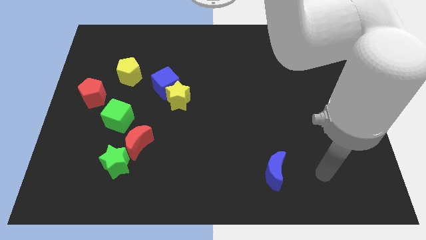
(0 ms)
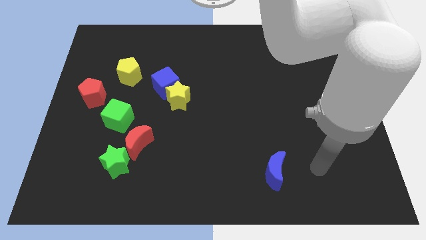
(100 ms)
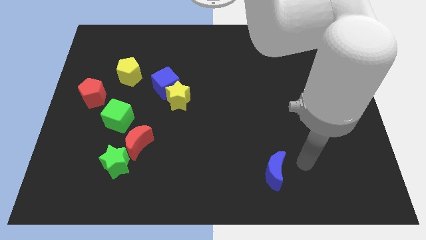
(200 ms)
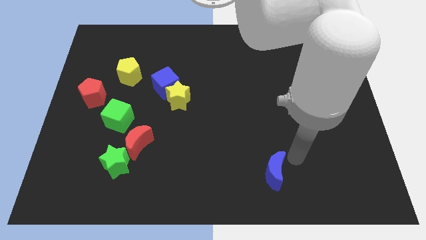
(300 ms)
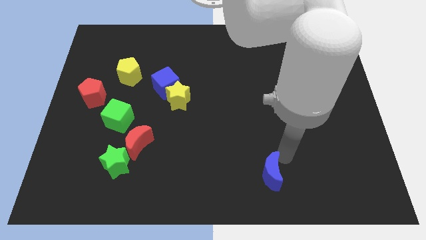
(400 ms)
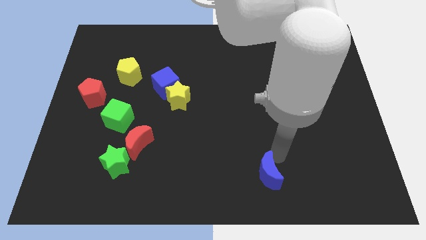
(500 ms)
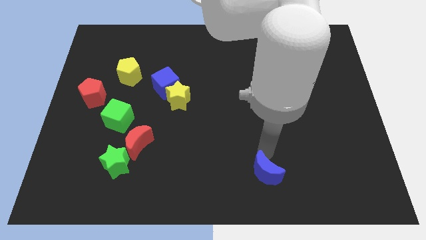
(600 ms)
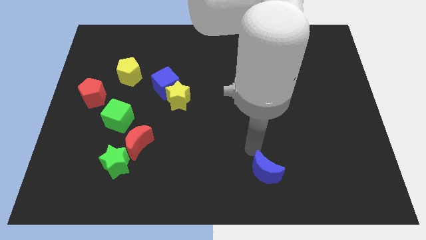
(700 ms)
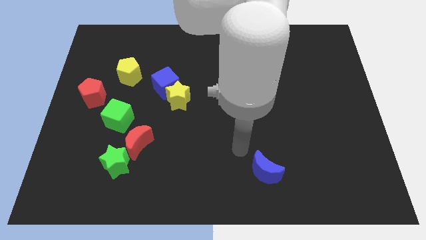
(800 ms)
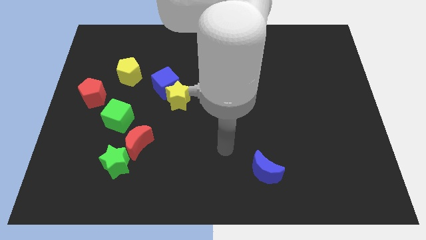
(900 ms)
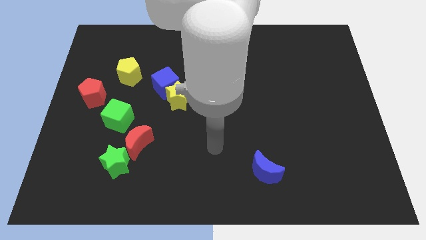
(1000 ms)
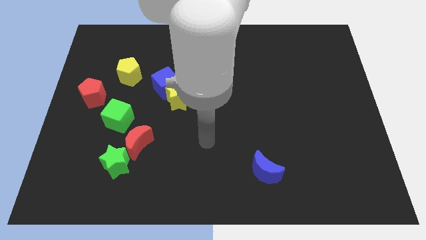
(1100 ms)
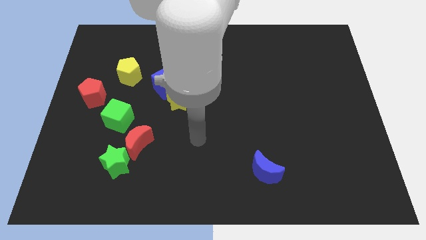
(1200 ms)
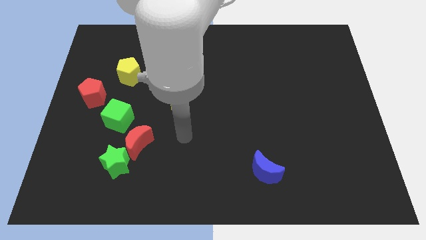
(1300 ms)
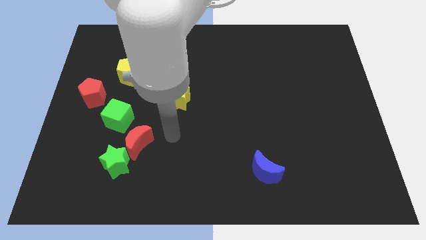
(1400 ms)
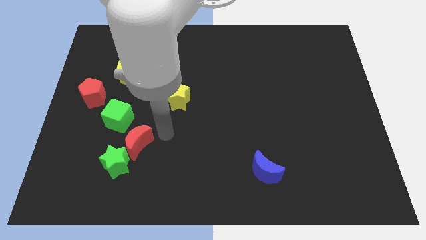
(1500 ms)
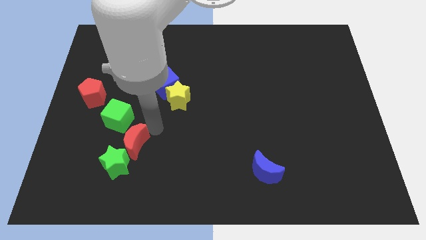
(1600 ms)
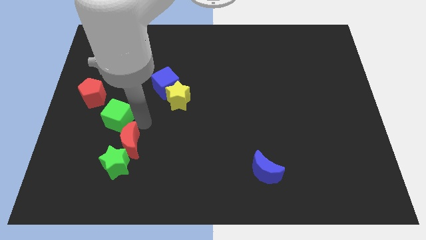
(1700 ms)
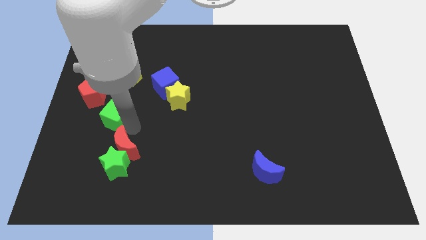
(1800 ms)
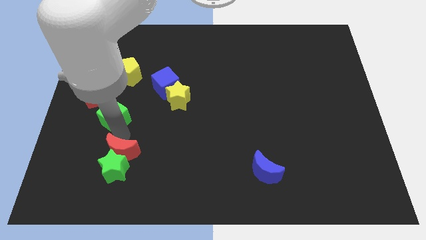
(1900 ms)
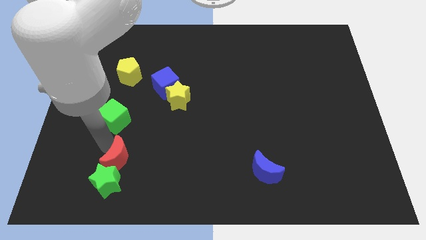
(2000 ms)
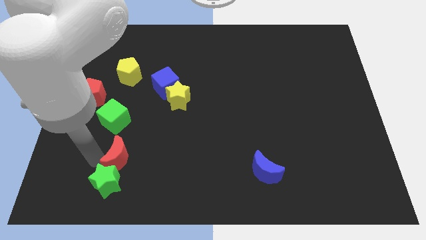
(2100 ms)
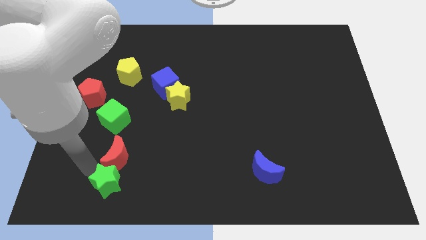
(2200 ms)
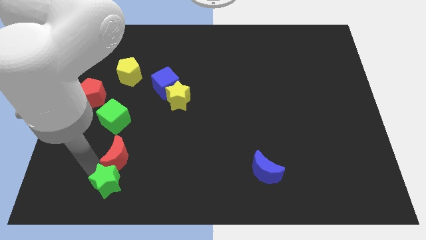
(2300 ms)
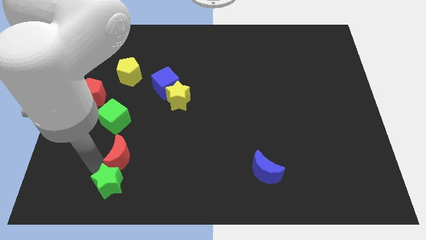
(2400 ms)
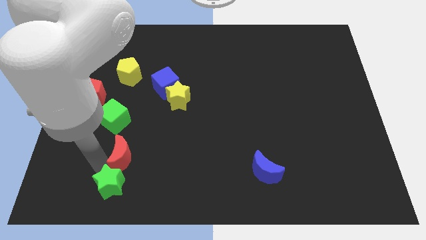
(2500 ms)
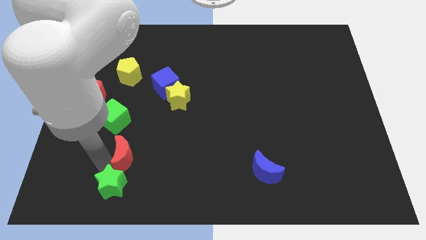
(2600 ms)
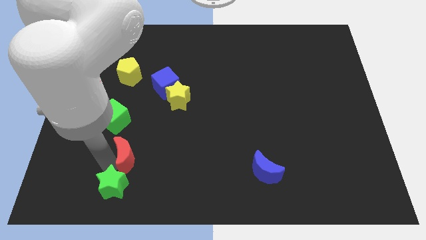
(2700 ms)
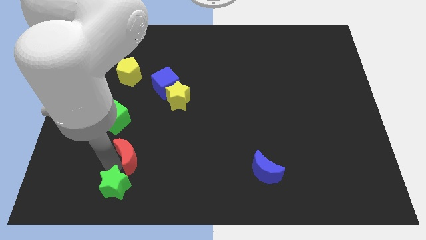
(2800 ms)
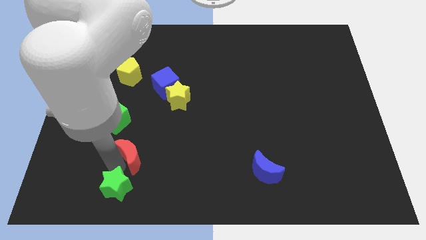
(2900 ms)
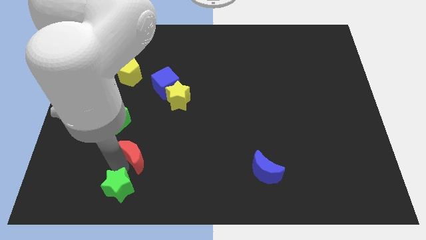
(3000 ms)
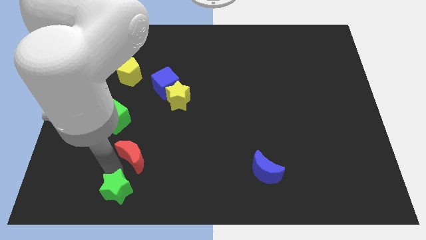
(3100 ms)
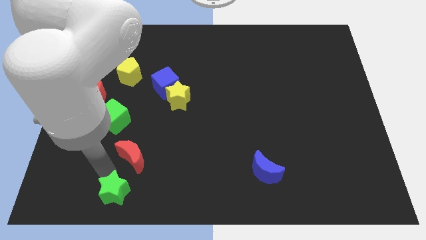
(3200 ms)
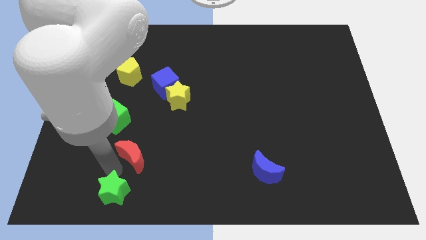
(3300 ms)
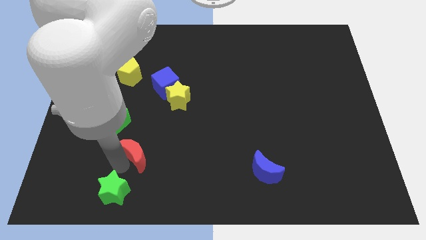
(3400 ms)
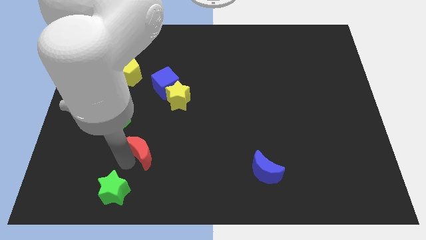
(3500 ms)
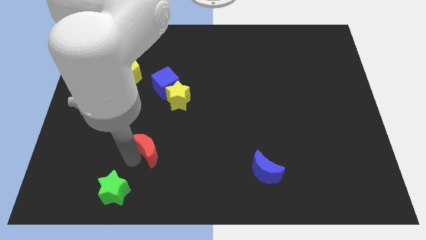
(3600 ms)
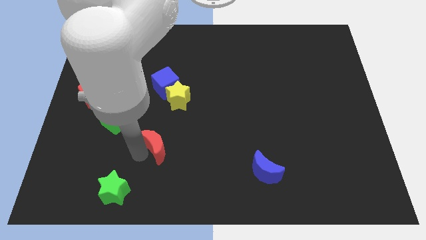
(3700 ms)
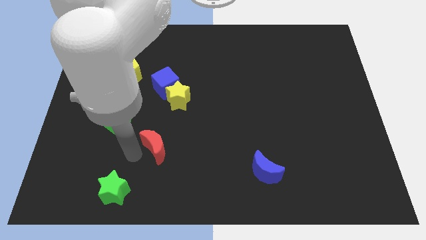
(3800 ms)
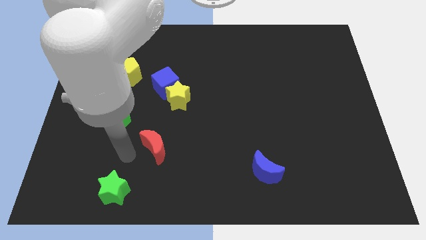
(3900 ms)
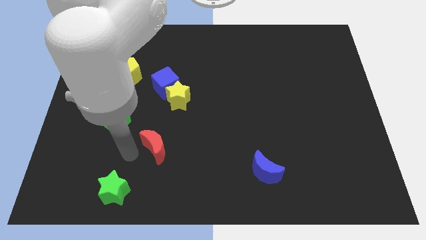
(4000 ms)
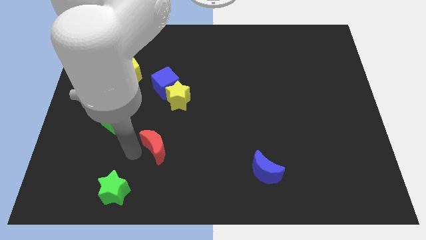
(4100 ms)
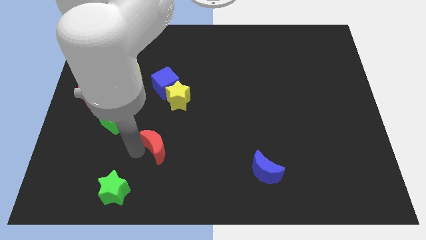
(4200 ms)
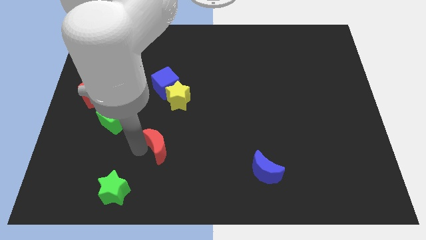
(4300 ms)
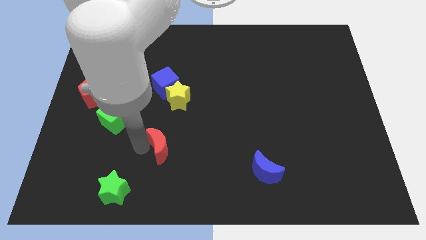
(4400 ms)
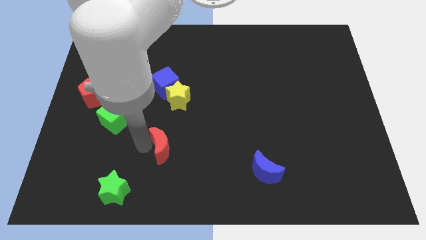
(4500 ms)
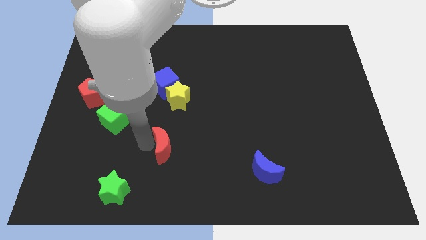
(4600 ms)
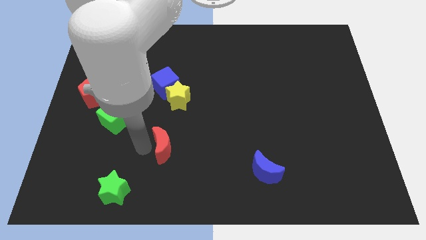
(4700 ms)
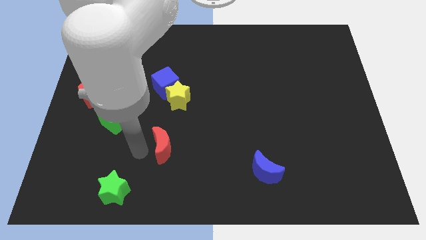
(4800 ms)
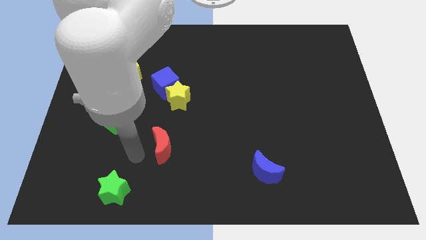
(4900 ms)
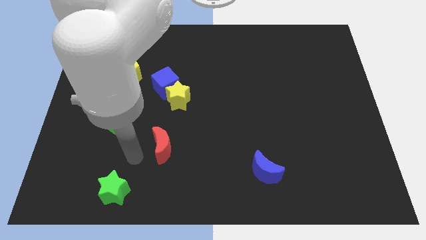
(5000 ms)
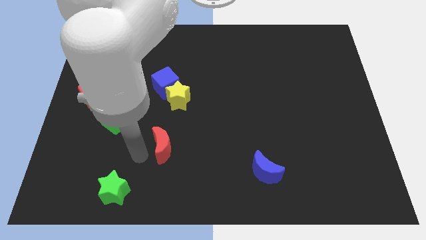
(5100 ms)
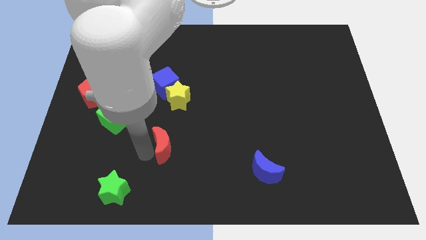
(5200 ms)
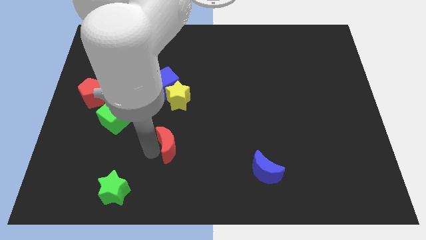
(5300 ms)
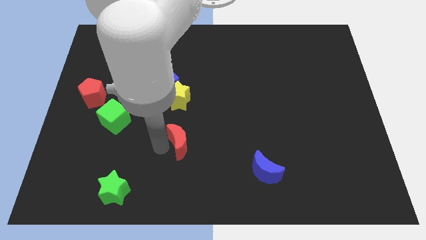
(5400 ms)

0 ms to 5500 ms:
slightly push the red moon to the right

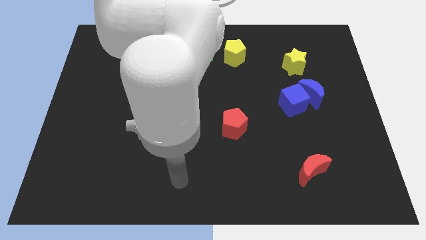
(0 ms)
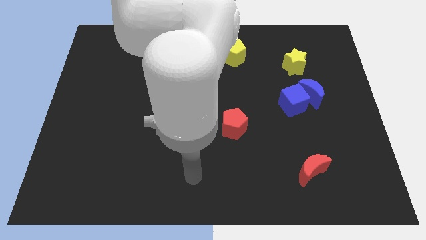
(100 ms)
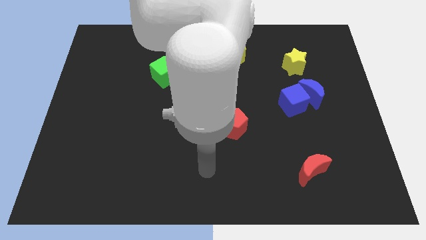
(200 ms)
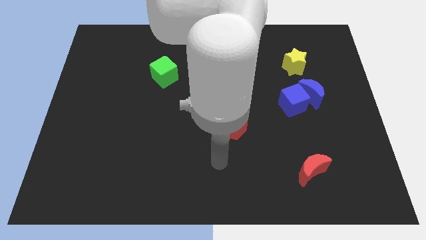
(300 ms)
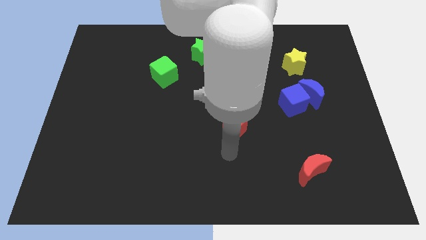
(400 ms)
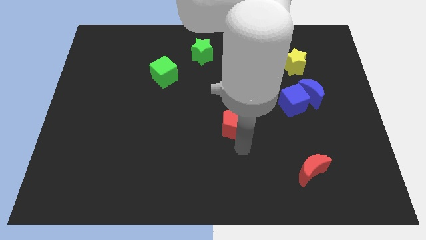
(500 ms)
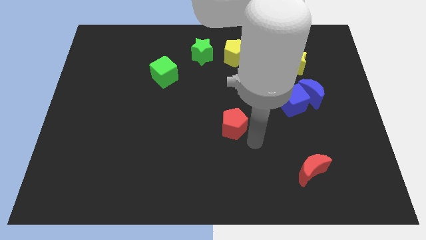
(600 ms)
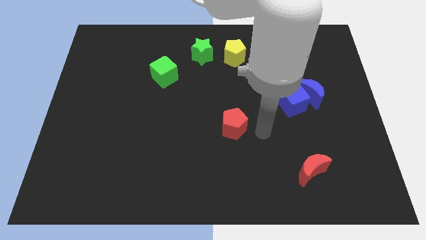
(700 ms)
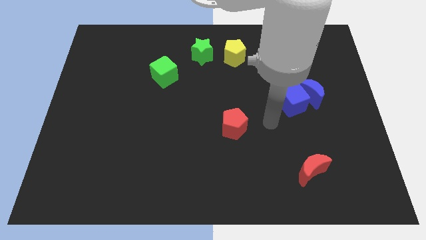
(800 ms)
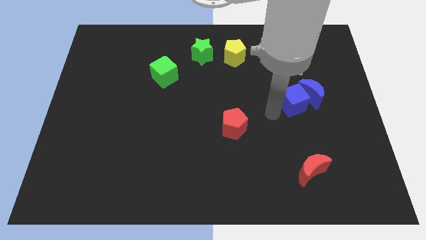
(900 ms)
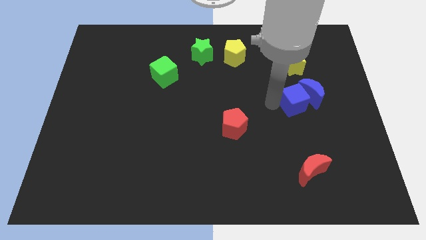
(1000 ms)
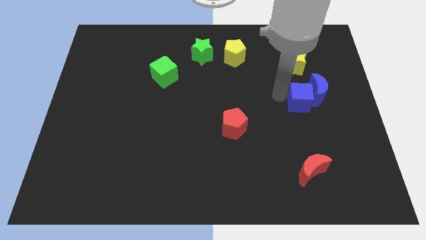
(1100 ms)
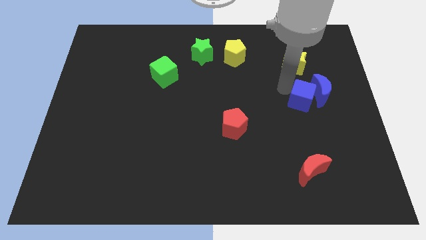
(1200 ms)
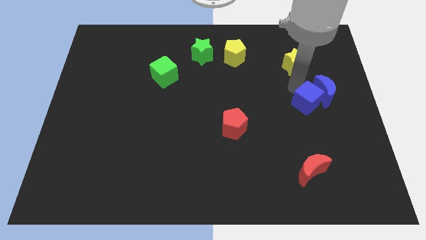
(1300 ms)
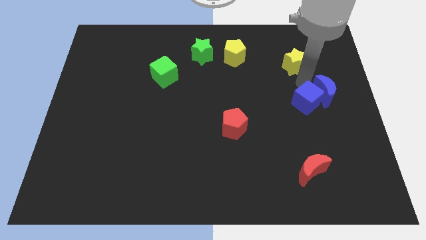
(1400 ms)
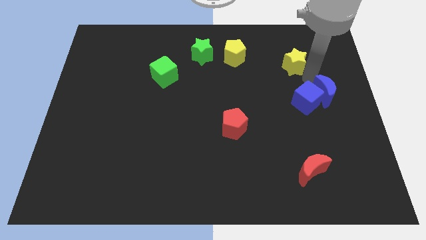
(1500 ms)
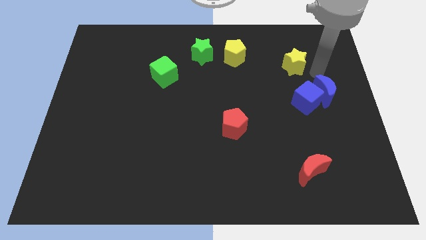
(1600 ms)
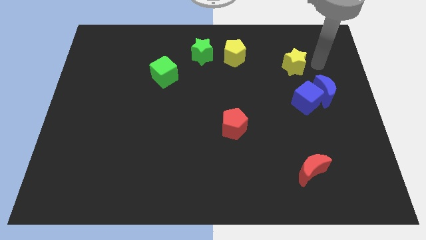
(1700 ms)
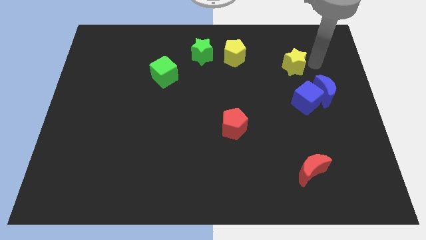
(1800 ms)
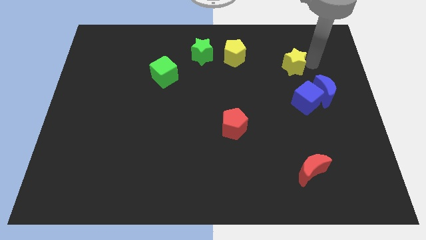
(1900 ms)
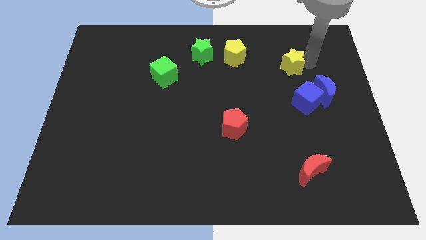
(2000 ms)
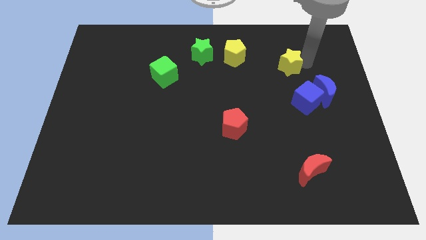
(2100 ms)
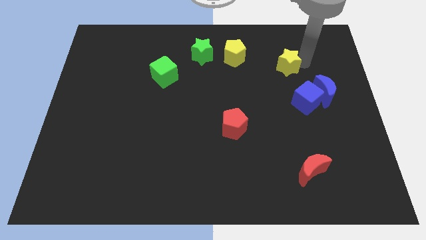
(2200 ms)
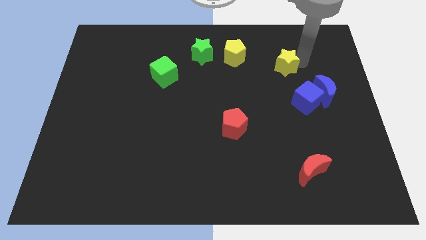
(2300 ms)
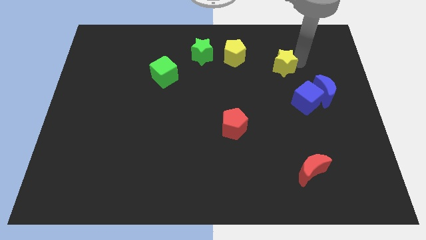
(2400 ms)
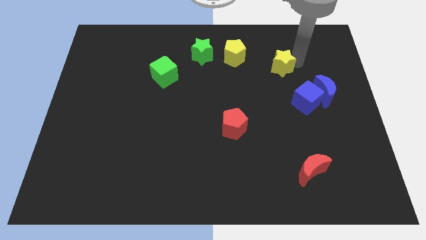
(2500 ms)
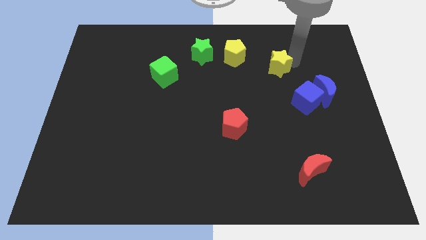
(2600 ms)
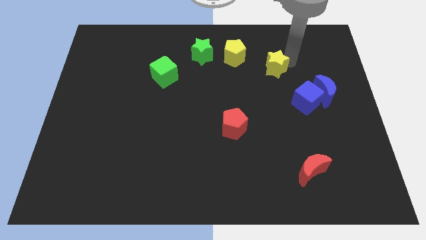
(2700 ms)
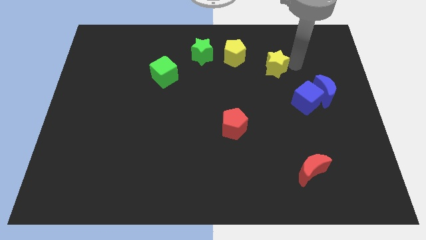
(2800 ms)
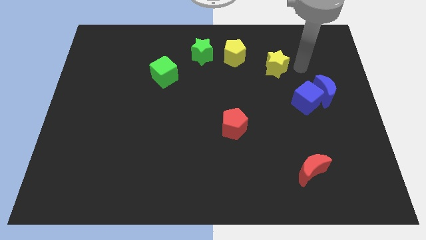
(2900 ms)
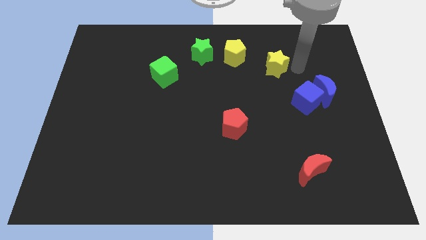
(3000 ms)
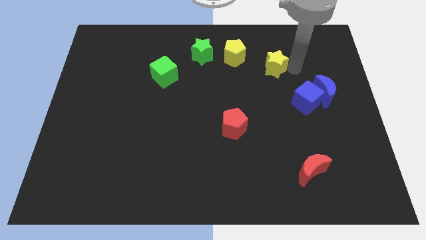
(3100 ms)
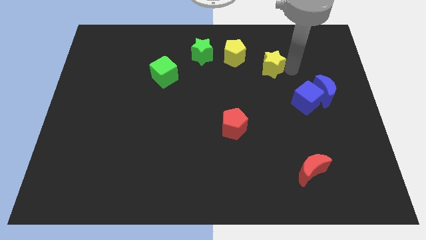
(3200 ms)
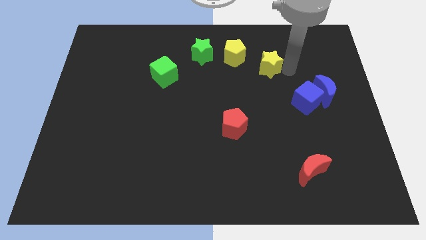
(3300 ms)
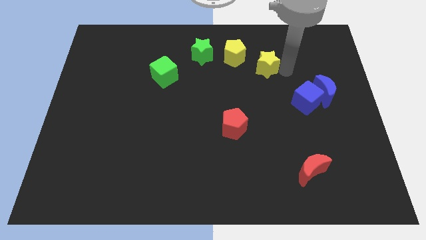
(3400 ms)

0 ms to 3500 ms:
slide the yellow star left somewhat
